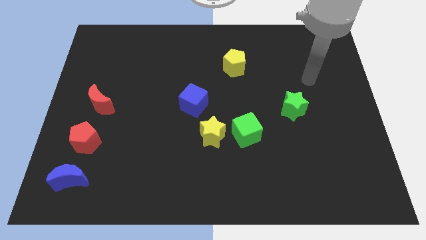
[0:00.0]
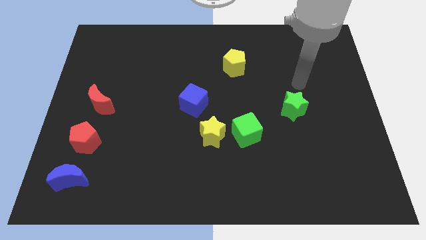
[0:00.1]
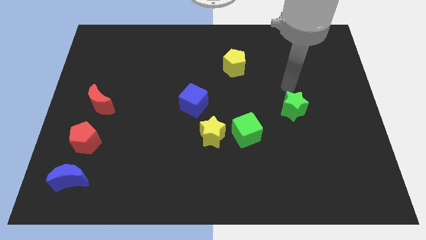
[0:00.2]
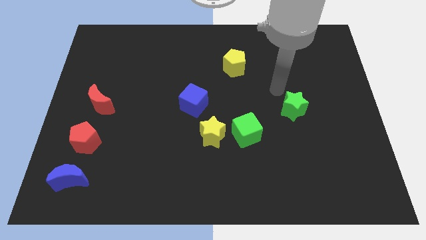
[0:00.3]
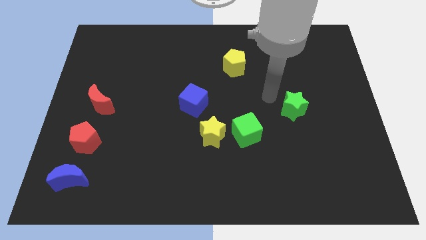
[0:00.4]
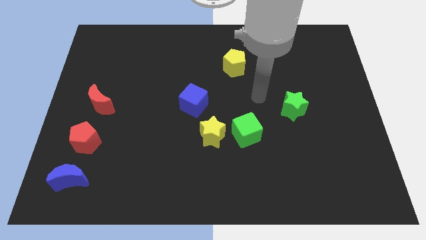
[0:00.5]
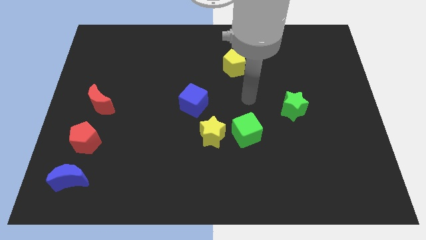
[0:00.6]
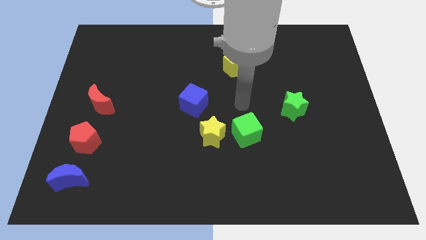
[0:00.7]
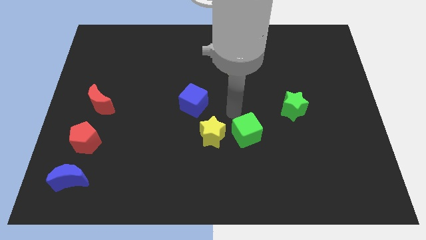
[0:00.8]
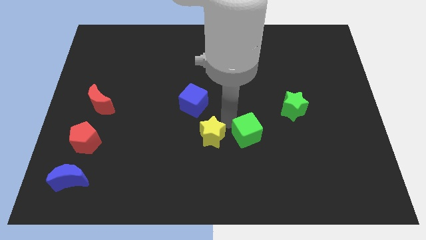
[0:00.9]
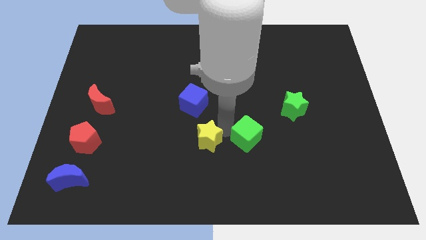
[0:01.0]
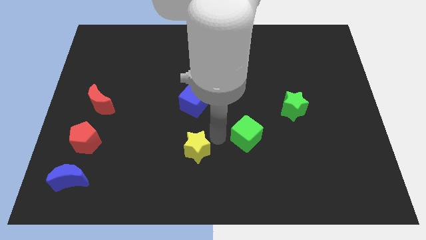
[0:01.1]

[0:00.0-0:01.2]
move the green cube away from the yellow star

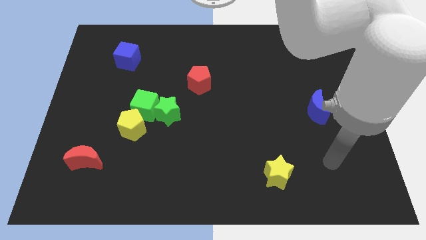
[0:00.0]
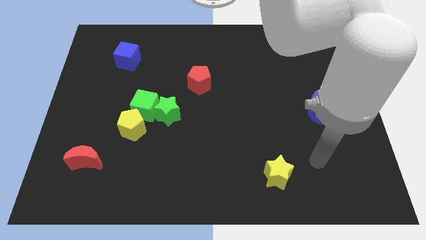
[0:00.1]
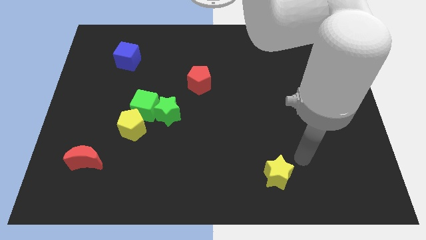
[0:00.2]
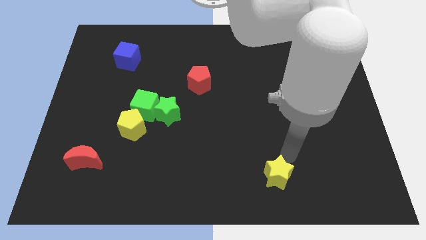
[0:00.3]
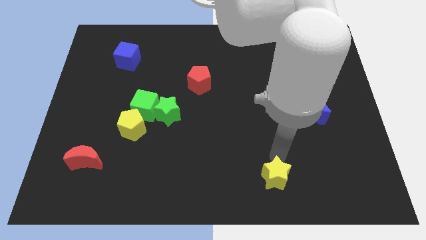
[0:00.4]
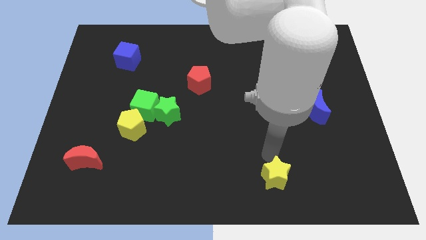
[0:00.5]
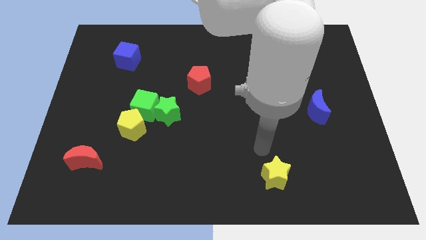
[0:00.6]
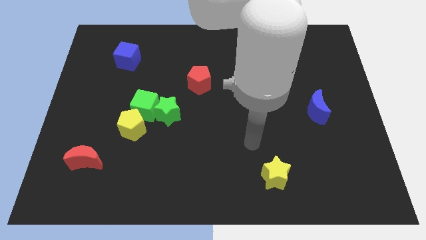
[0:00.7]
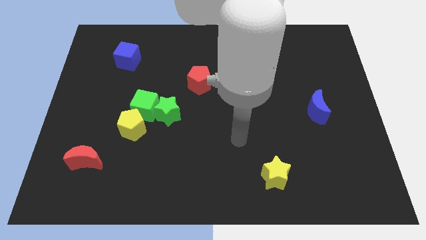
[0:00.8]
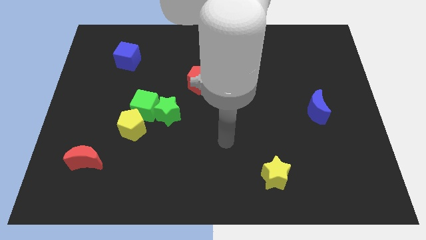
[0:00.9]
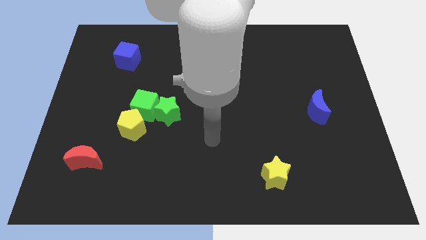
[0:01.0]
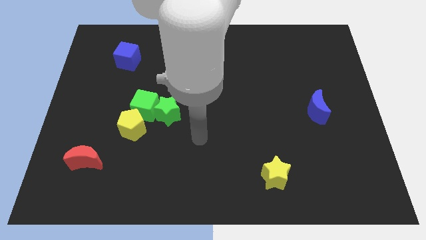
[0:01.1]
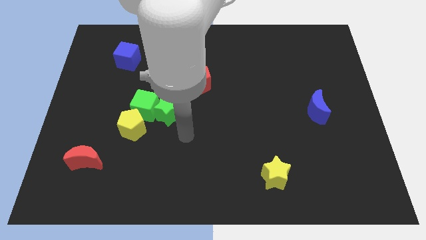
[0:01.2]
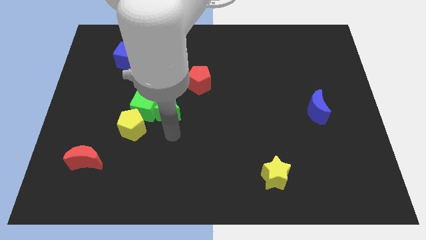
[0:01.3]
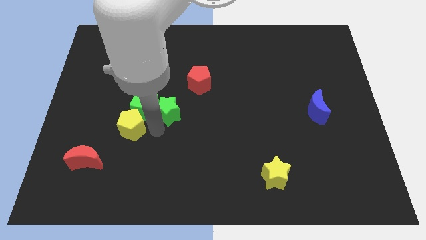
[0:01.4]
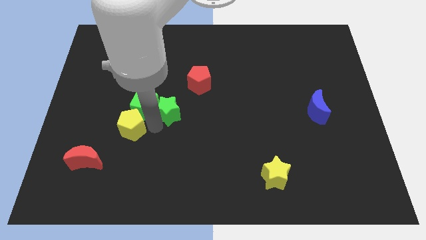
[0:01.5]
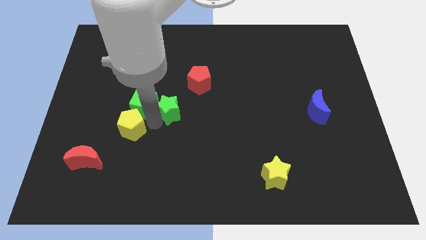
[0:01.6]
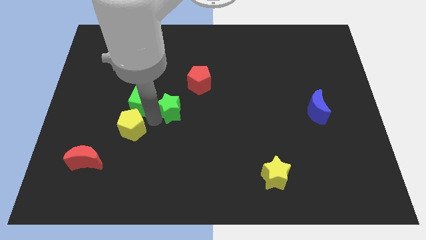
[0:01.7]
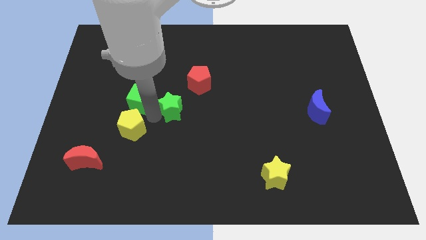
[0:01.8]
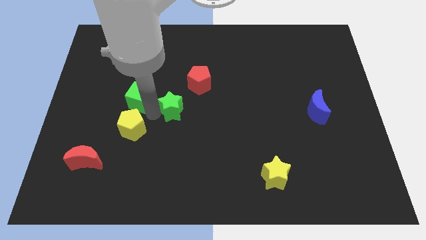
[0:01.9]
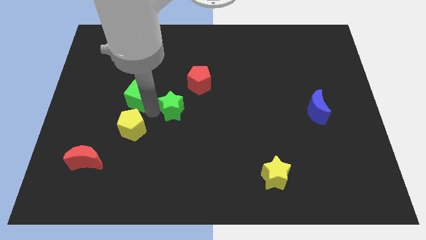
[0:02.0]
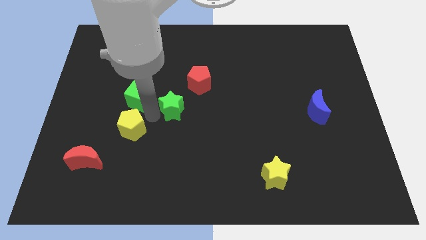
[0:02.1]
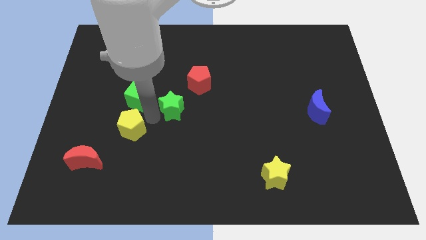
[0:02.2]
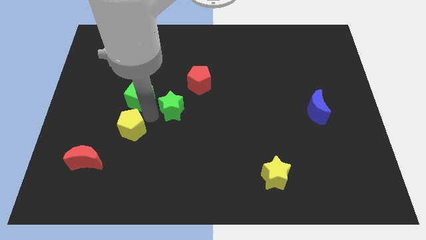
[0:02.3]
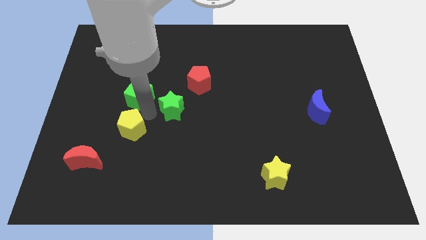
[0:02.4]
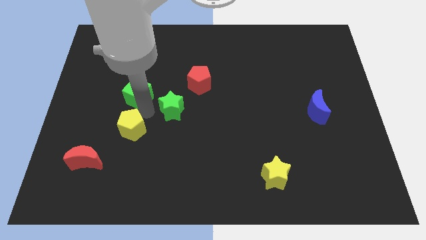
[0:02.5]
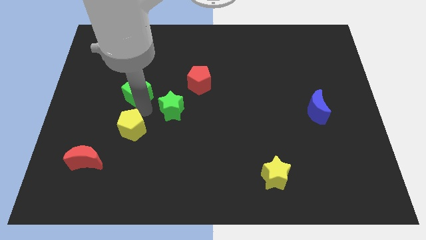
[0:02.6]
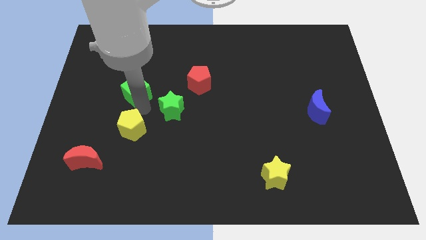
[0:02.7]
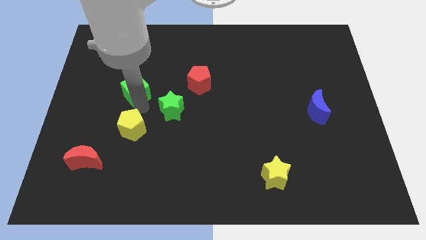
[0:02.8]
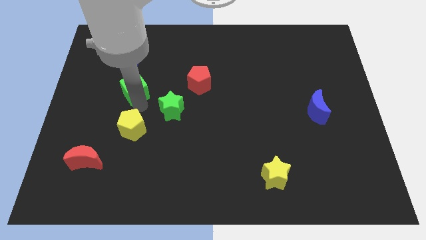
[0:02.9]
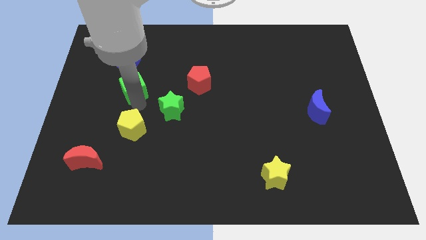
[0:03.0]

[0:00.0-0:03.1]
pull the green cube apart from the green star and yellow pentagon

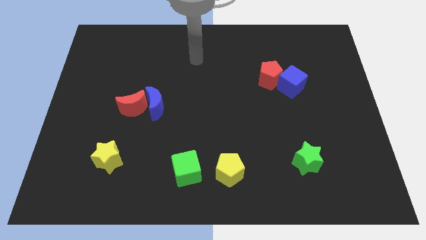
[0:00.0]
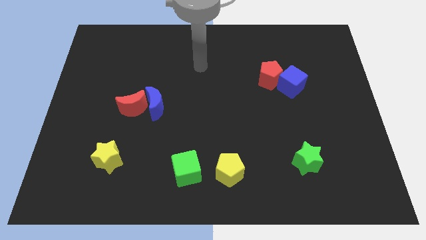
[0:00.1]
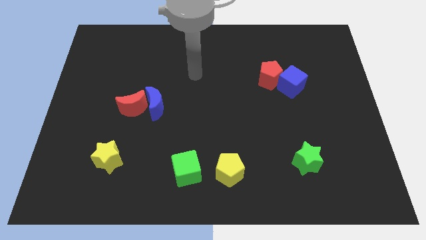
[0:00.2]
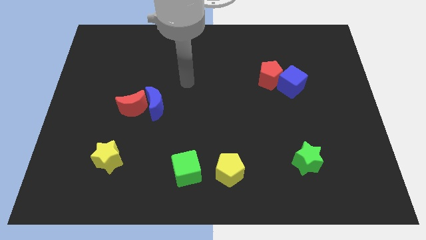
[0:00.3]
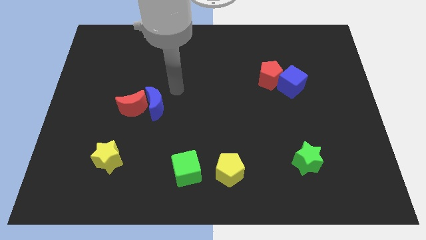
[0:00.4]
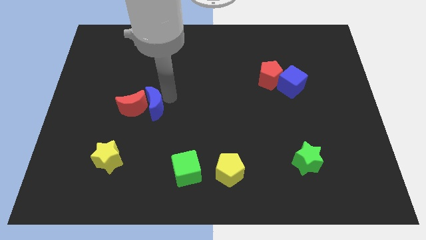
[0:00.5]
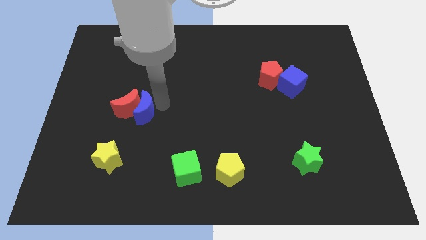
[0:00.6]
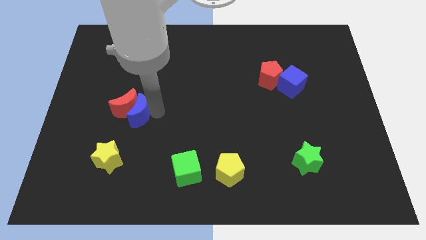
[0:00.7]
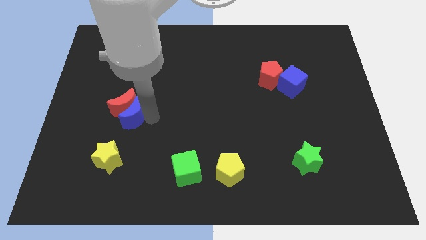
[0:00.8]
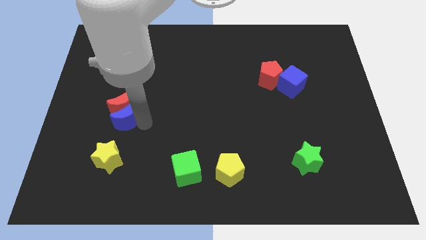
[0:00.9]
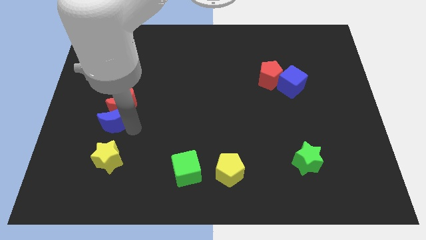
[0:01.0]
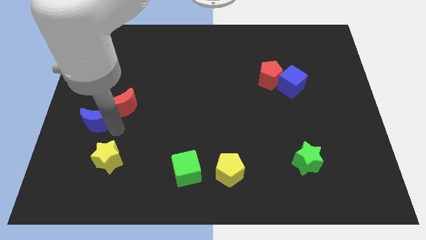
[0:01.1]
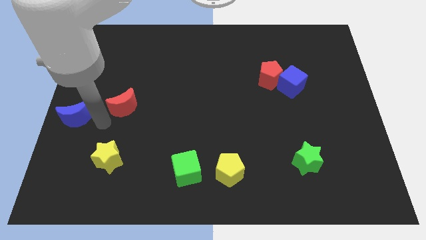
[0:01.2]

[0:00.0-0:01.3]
separate the red moon from the blue moon

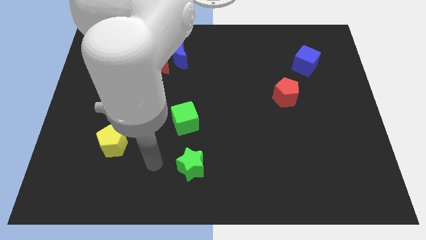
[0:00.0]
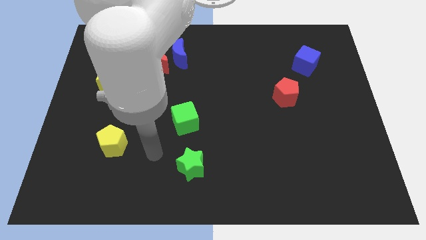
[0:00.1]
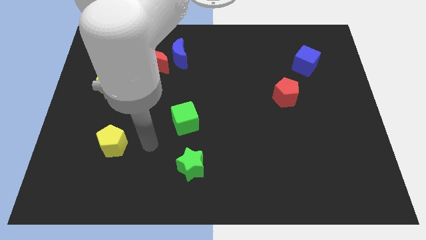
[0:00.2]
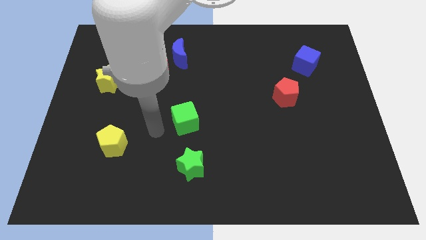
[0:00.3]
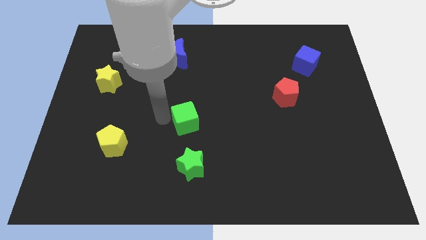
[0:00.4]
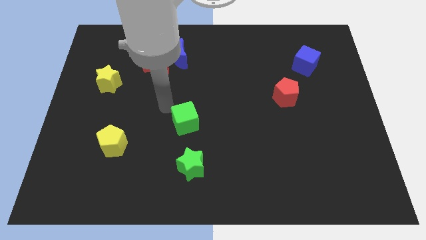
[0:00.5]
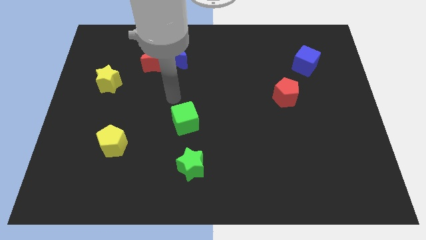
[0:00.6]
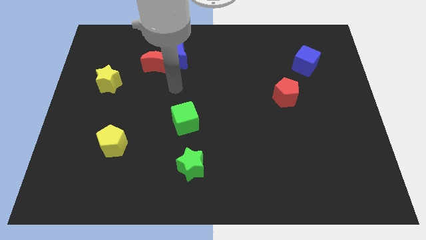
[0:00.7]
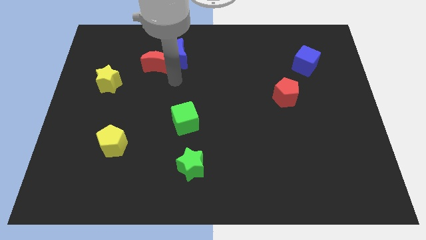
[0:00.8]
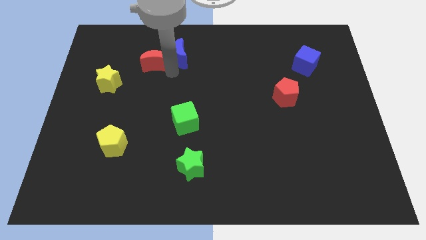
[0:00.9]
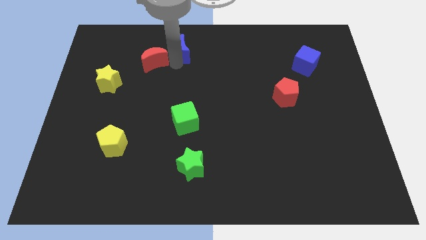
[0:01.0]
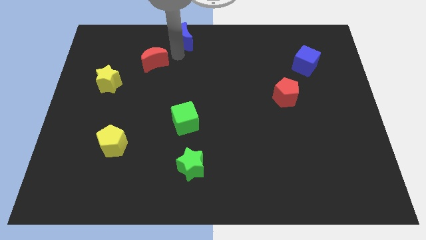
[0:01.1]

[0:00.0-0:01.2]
pull the red moon apart from the blue moon

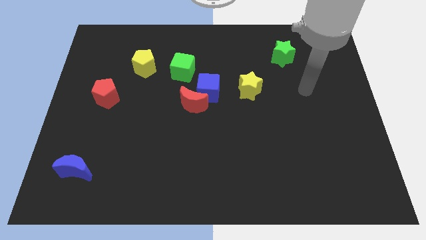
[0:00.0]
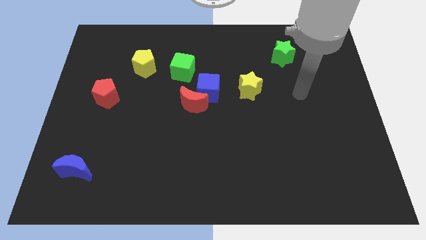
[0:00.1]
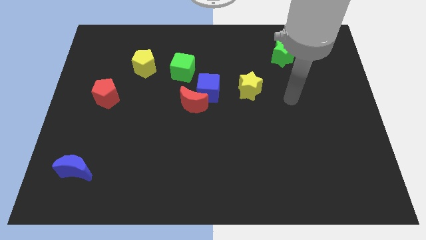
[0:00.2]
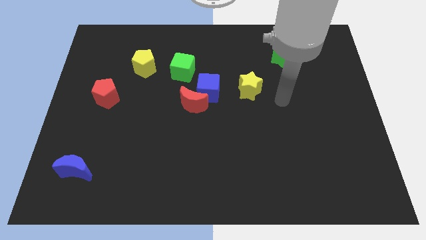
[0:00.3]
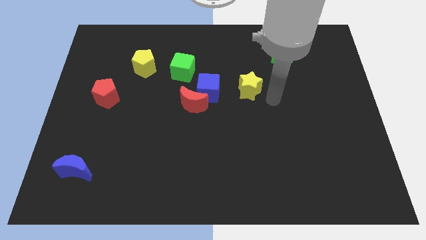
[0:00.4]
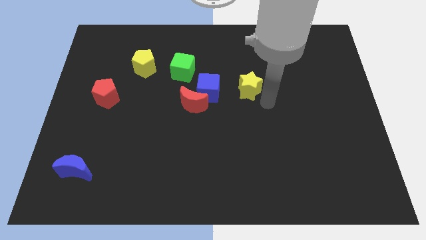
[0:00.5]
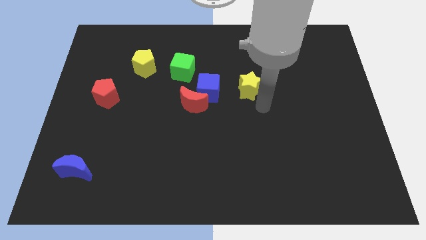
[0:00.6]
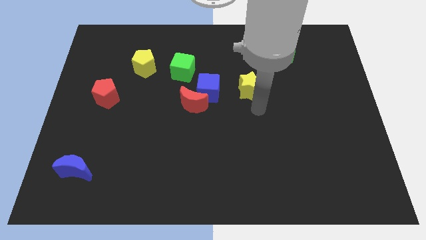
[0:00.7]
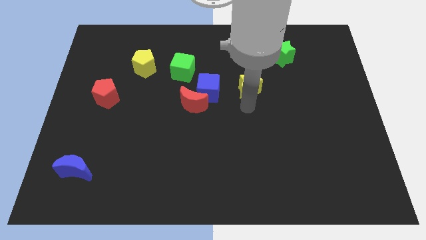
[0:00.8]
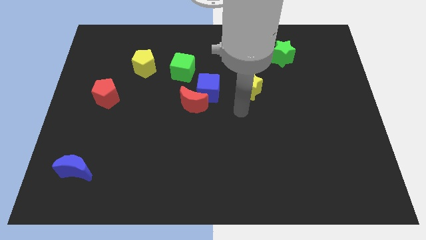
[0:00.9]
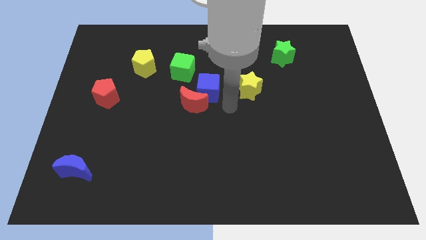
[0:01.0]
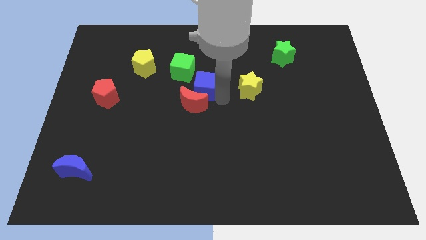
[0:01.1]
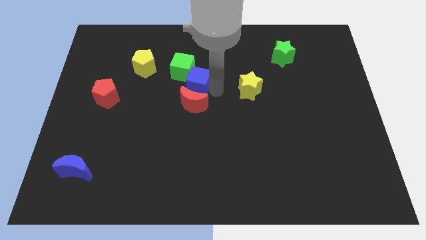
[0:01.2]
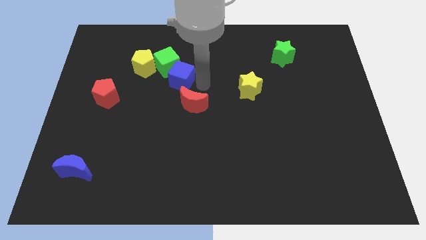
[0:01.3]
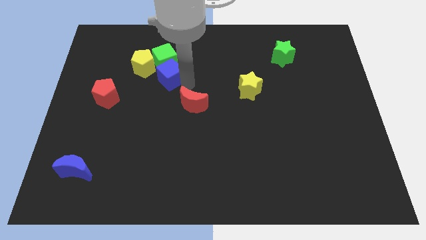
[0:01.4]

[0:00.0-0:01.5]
separate the red moon from the blue cube

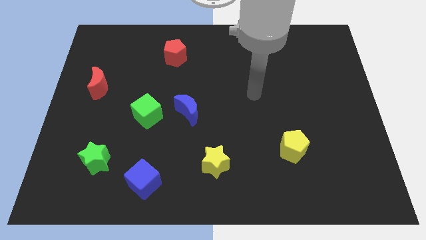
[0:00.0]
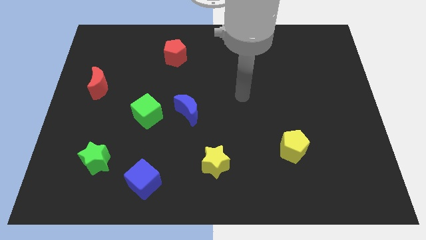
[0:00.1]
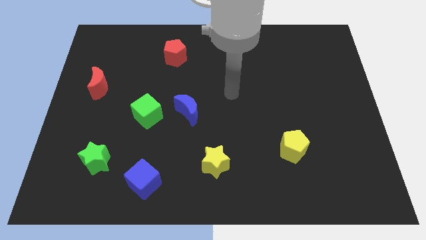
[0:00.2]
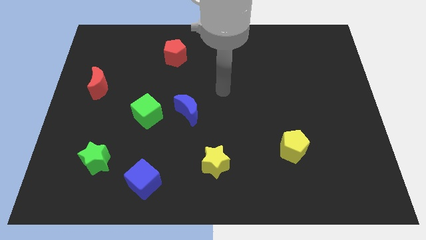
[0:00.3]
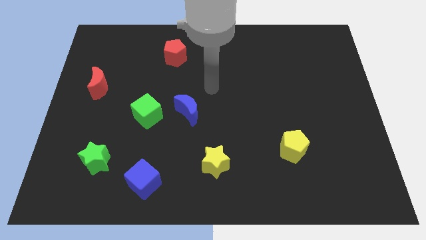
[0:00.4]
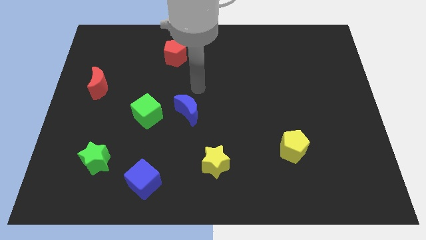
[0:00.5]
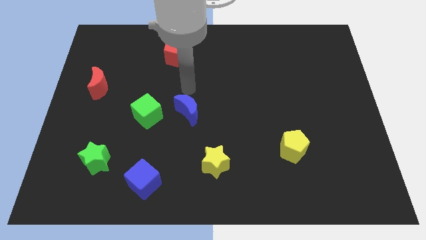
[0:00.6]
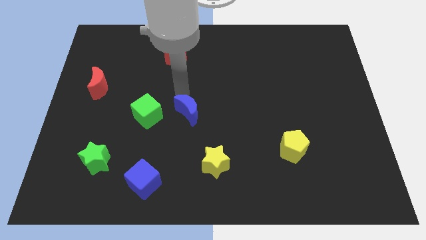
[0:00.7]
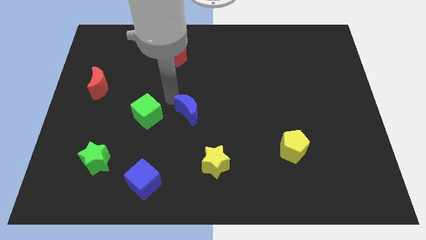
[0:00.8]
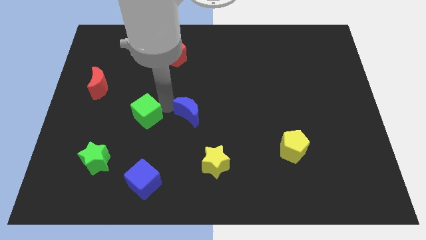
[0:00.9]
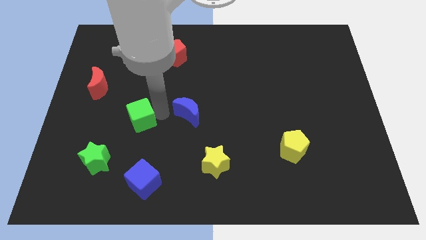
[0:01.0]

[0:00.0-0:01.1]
pull the blue moon apart from the green cube
